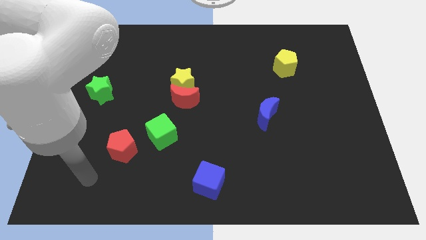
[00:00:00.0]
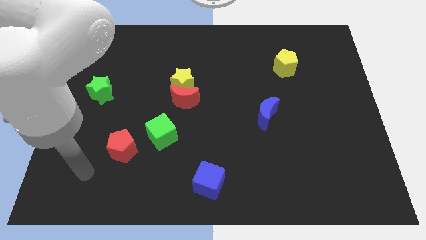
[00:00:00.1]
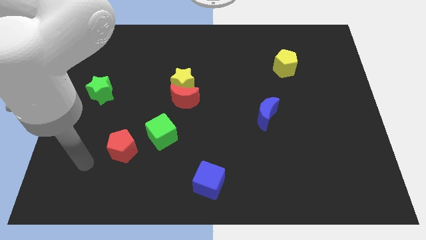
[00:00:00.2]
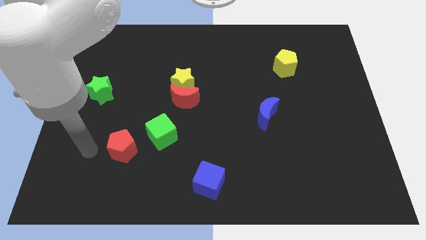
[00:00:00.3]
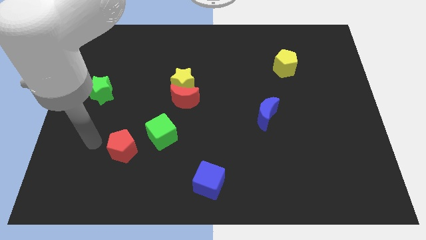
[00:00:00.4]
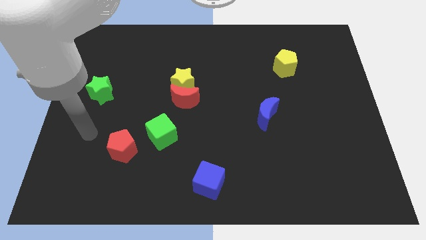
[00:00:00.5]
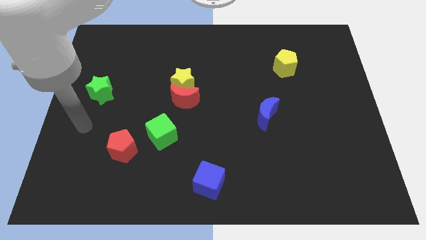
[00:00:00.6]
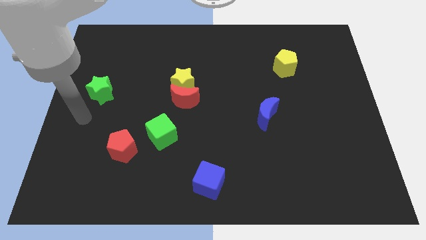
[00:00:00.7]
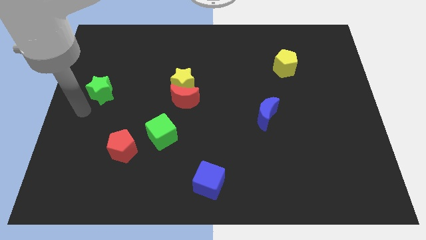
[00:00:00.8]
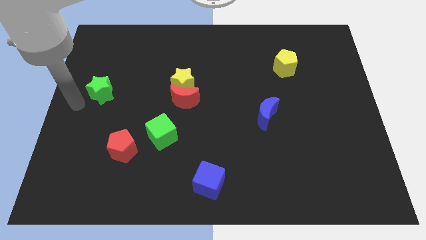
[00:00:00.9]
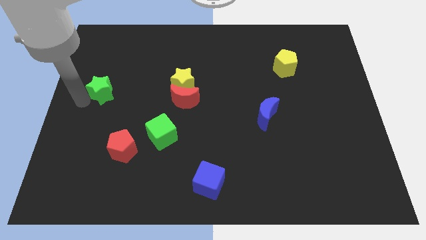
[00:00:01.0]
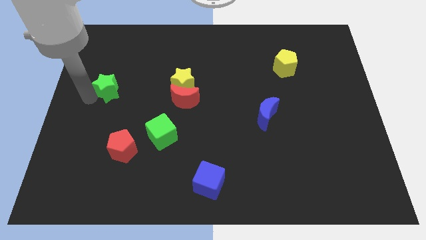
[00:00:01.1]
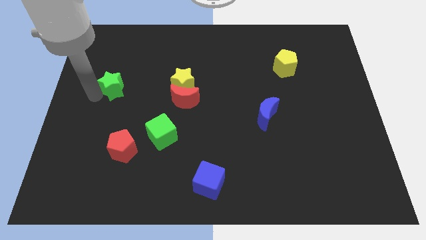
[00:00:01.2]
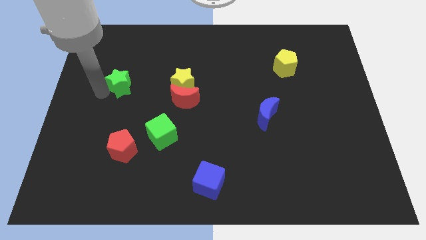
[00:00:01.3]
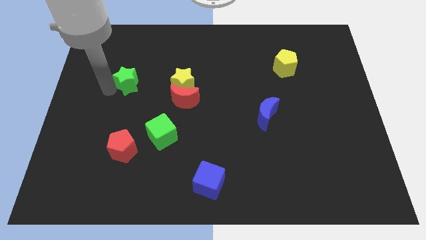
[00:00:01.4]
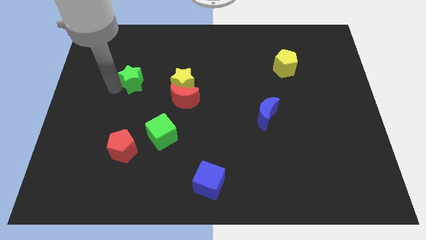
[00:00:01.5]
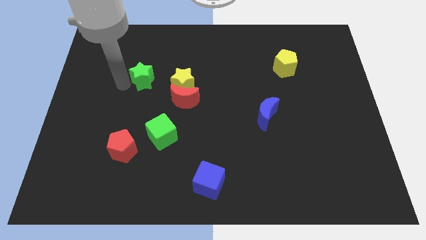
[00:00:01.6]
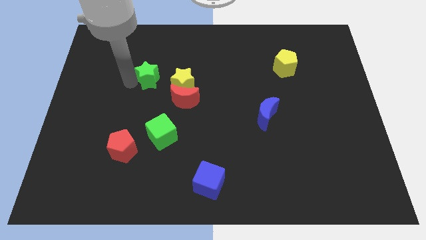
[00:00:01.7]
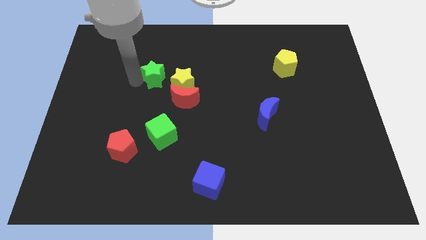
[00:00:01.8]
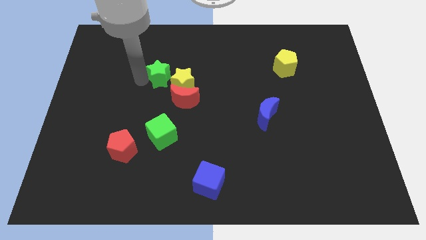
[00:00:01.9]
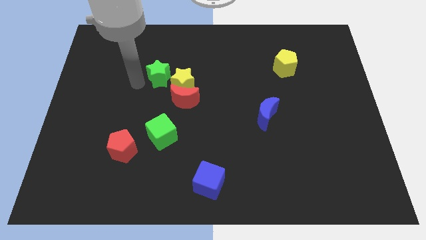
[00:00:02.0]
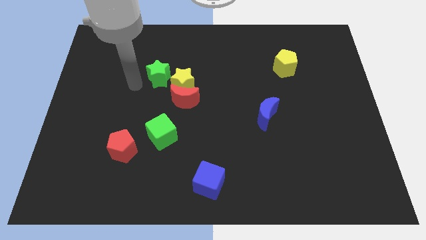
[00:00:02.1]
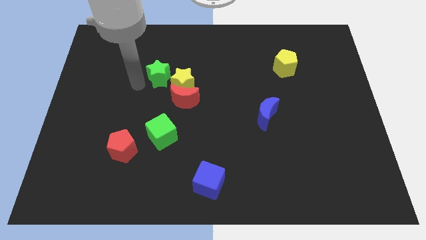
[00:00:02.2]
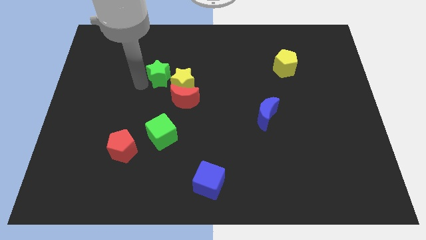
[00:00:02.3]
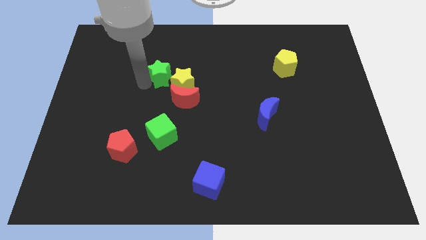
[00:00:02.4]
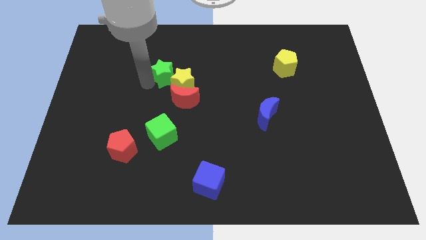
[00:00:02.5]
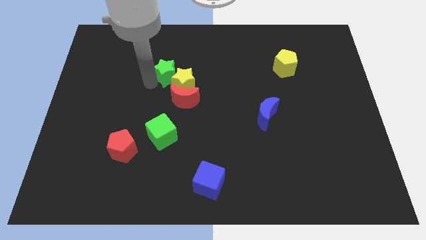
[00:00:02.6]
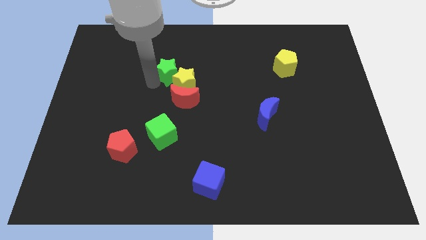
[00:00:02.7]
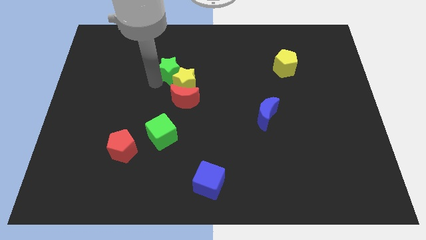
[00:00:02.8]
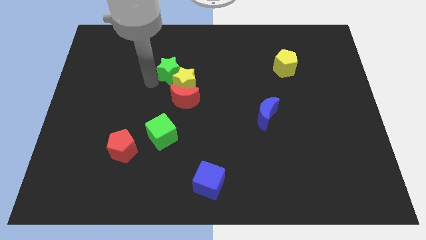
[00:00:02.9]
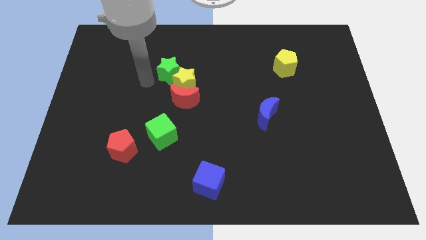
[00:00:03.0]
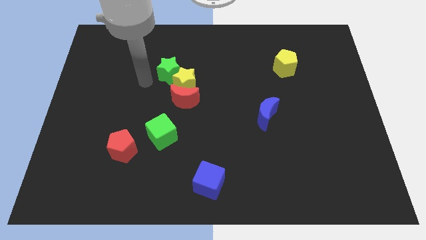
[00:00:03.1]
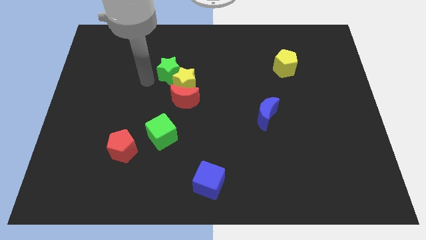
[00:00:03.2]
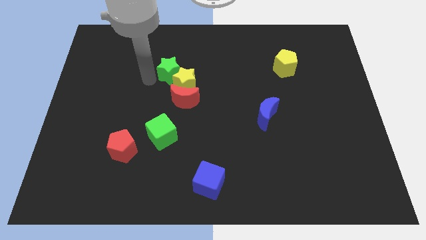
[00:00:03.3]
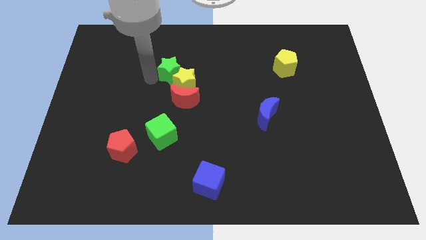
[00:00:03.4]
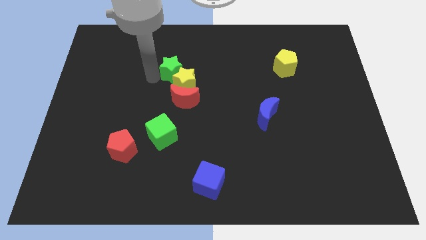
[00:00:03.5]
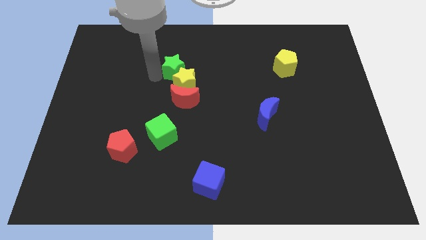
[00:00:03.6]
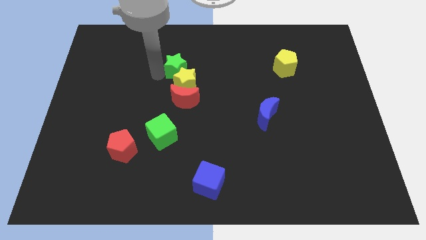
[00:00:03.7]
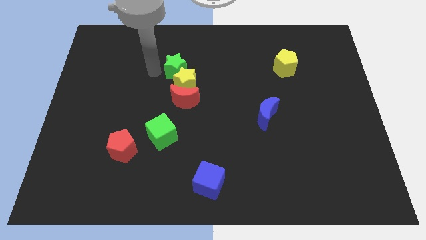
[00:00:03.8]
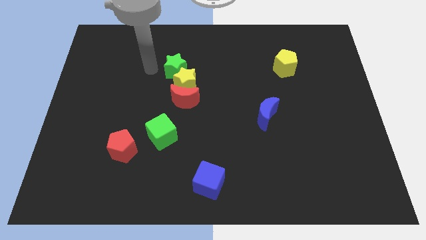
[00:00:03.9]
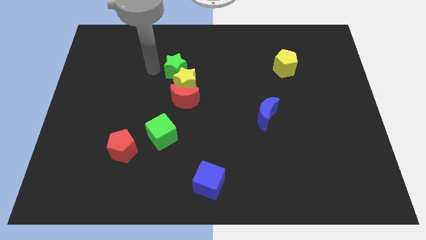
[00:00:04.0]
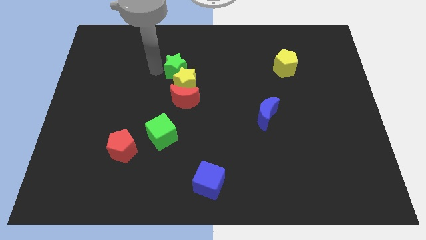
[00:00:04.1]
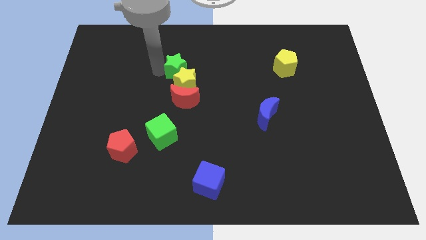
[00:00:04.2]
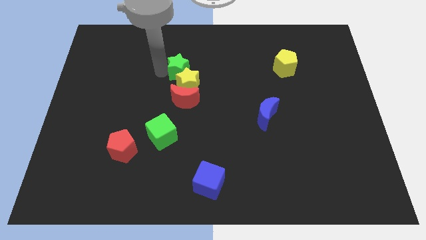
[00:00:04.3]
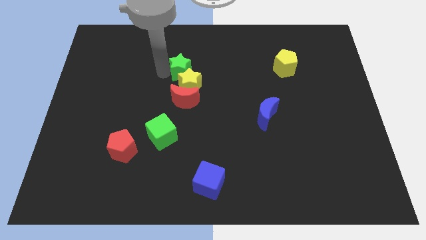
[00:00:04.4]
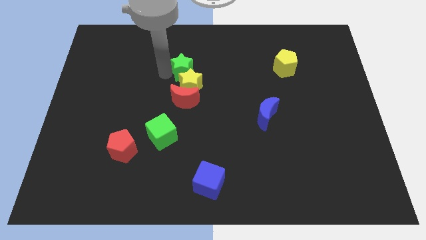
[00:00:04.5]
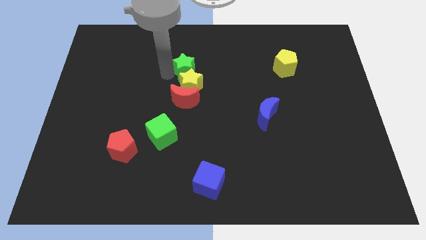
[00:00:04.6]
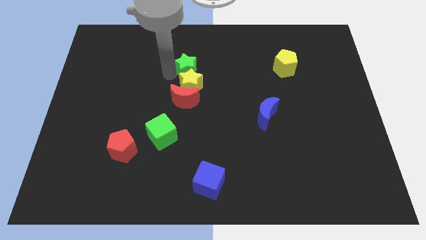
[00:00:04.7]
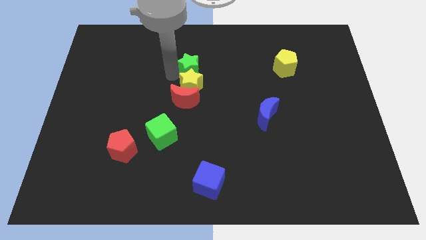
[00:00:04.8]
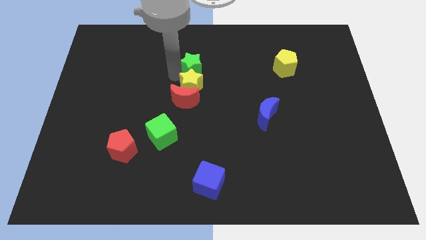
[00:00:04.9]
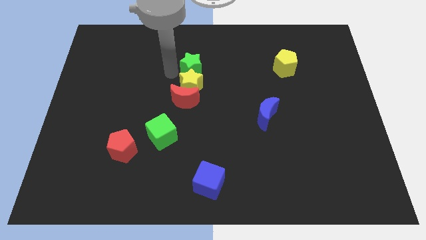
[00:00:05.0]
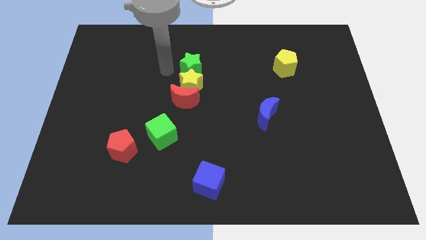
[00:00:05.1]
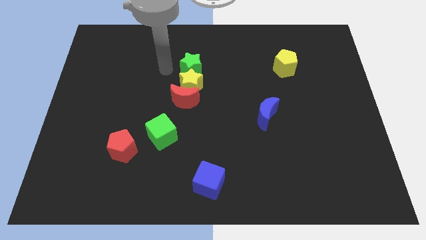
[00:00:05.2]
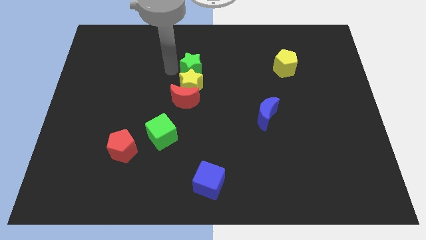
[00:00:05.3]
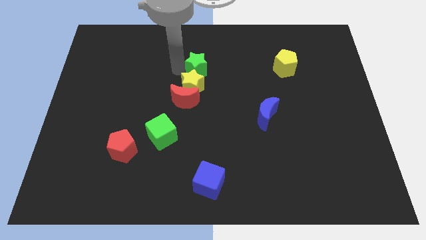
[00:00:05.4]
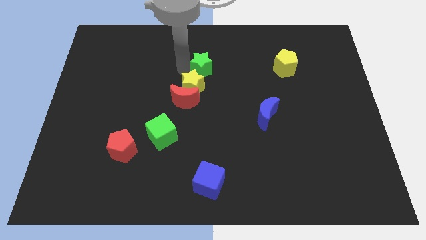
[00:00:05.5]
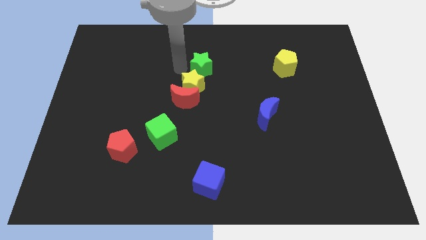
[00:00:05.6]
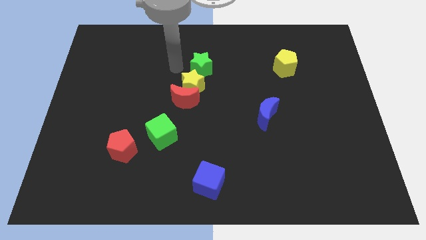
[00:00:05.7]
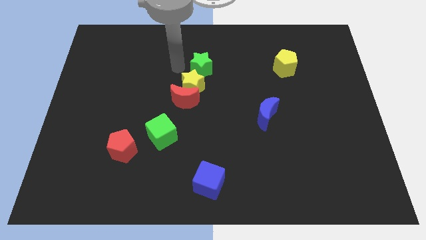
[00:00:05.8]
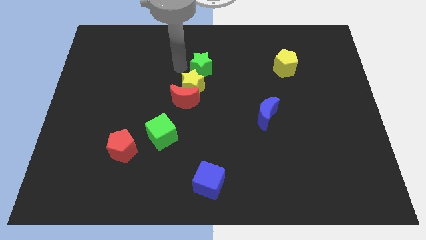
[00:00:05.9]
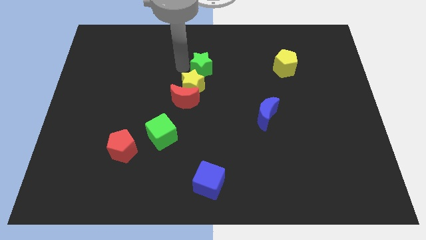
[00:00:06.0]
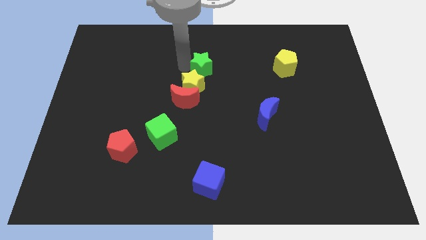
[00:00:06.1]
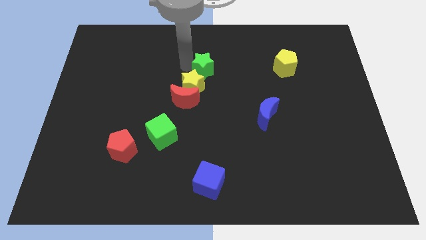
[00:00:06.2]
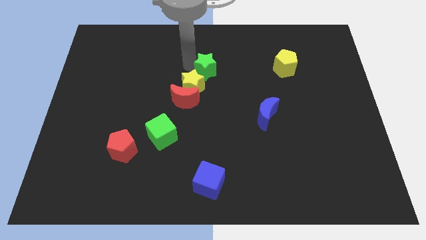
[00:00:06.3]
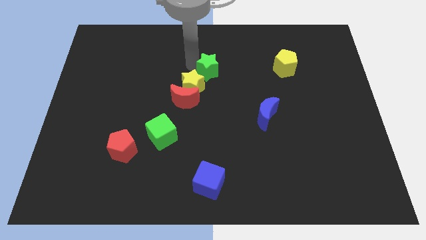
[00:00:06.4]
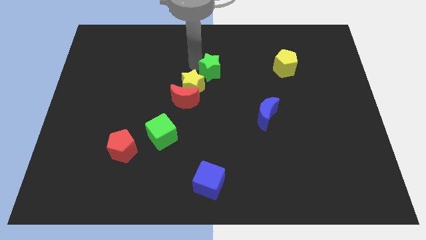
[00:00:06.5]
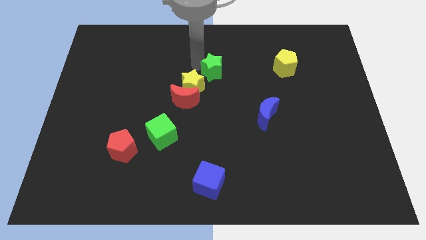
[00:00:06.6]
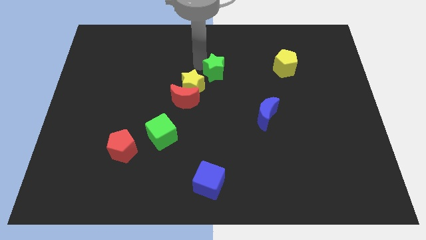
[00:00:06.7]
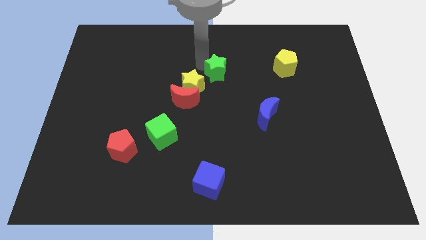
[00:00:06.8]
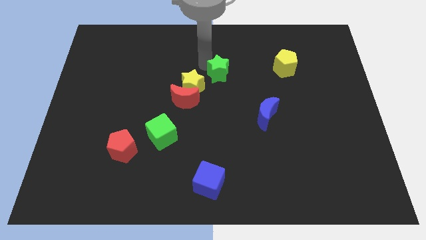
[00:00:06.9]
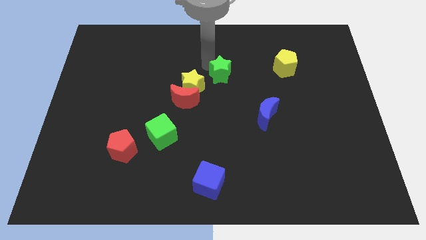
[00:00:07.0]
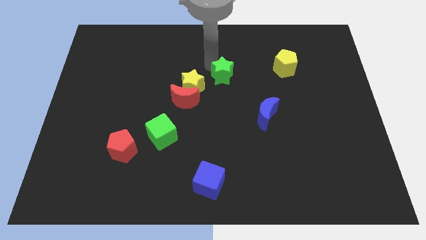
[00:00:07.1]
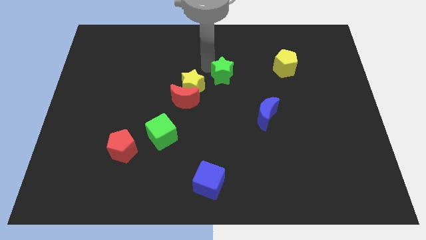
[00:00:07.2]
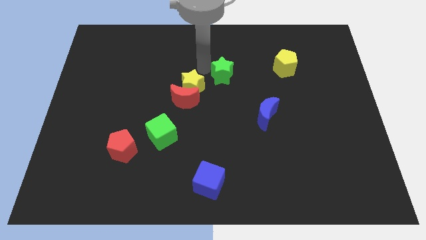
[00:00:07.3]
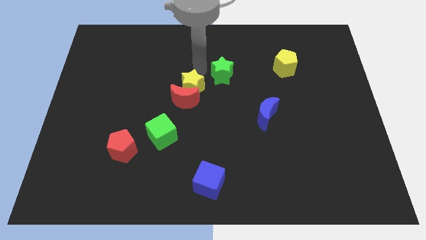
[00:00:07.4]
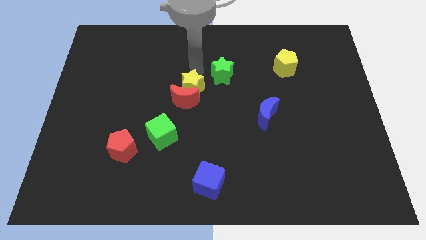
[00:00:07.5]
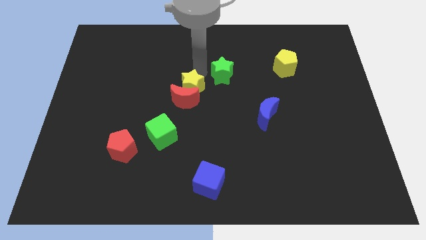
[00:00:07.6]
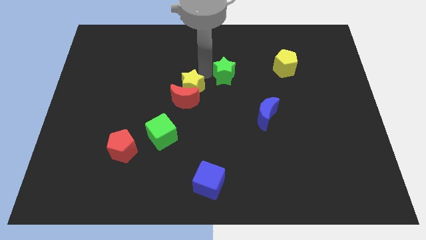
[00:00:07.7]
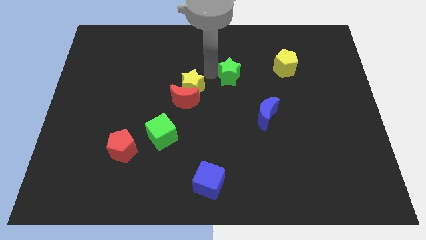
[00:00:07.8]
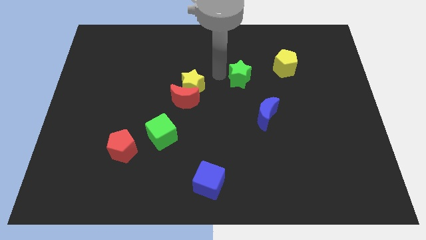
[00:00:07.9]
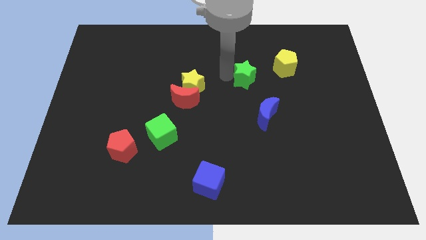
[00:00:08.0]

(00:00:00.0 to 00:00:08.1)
put the green star above the blue moon
